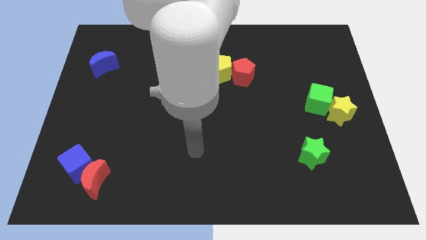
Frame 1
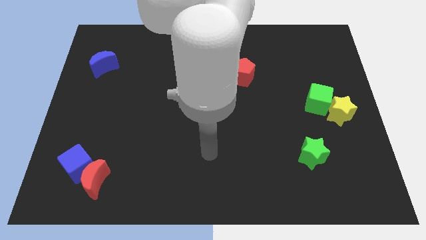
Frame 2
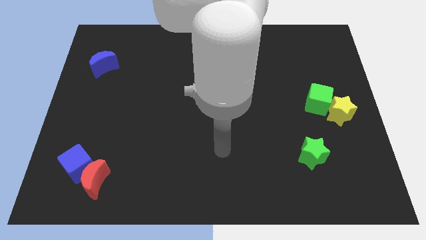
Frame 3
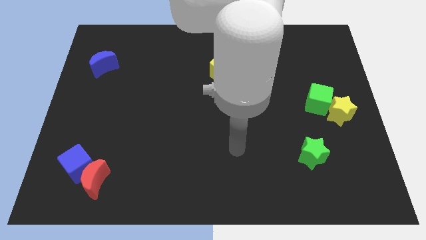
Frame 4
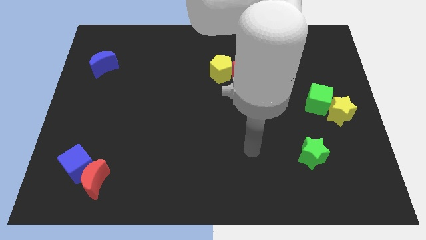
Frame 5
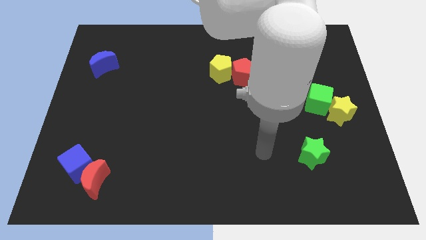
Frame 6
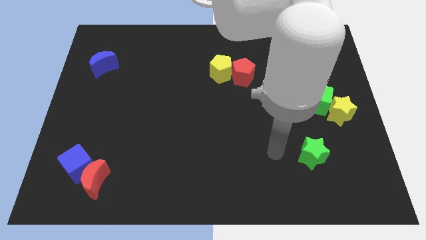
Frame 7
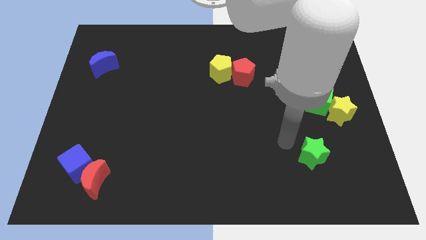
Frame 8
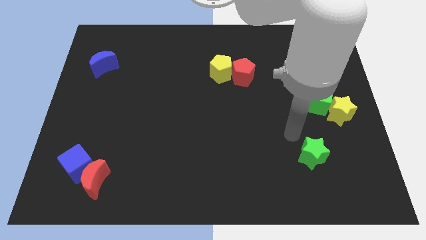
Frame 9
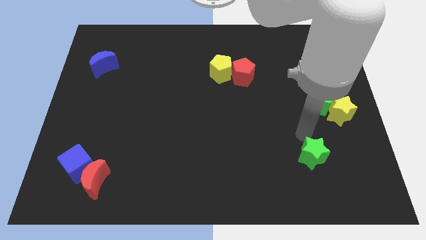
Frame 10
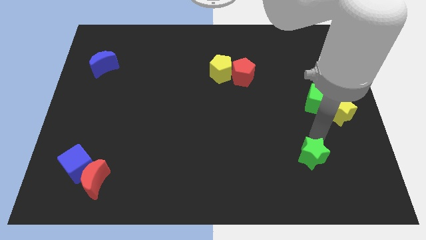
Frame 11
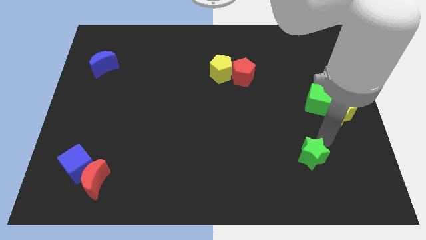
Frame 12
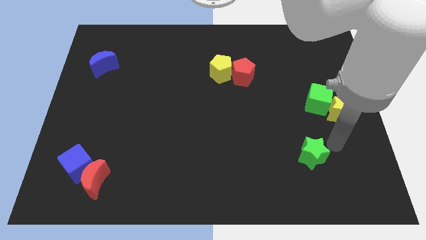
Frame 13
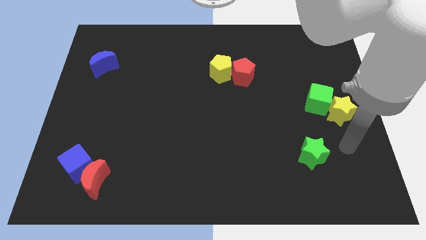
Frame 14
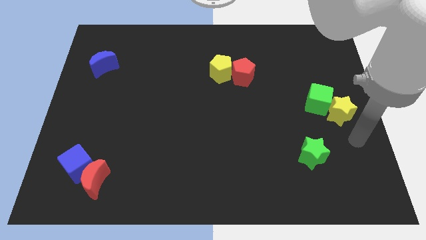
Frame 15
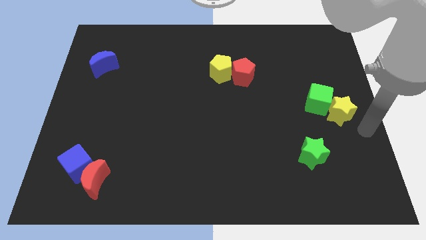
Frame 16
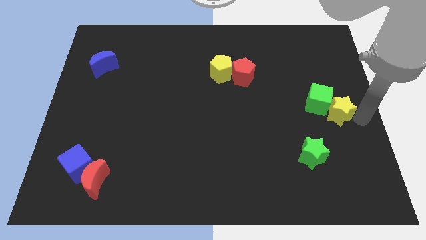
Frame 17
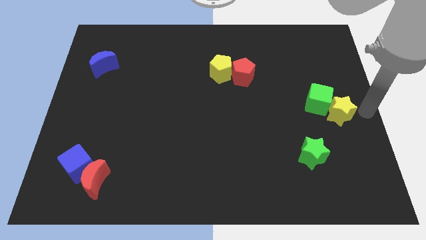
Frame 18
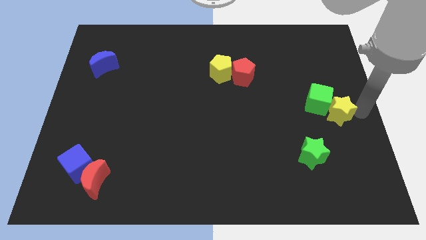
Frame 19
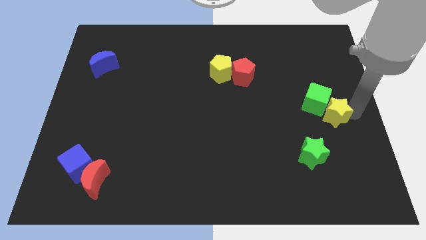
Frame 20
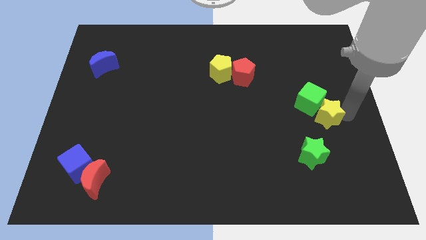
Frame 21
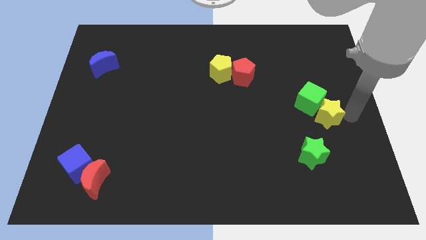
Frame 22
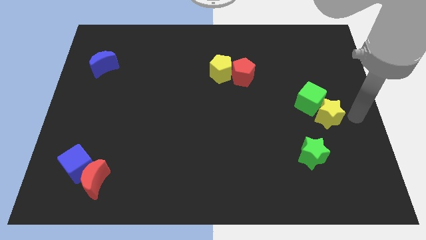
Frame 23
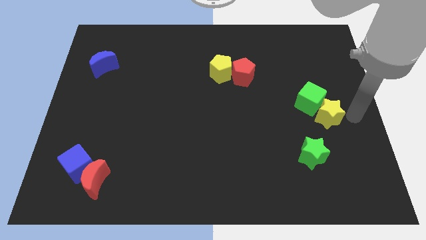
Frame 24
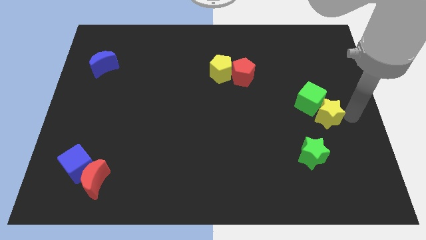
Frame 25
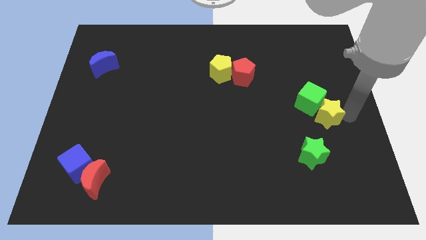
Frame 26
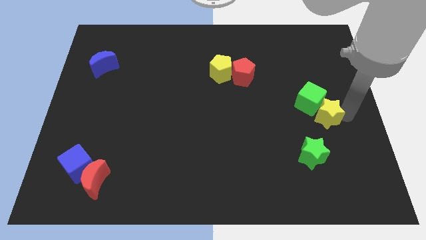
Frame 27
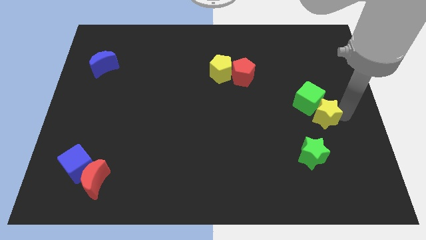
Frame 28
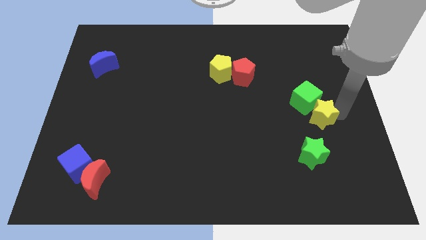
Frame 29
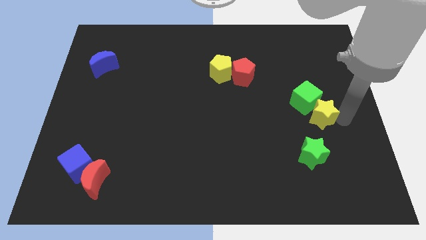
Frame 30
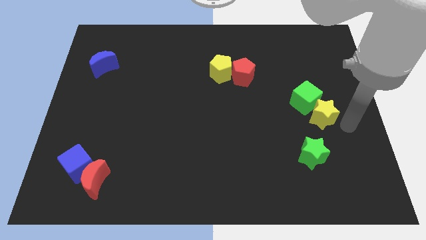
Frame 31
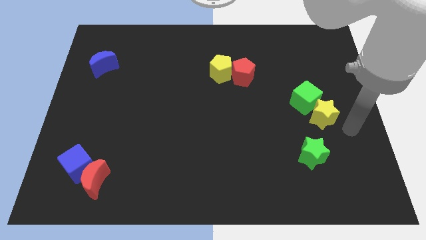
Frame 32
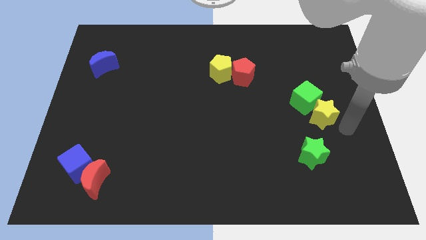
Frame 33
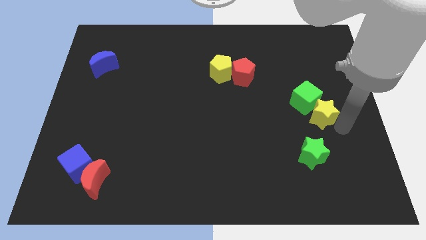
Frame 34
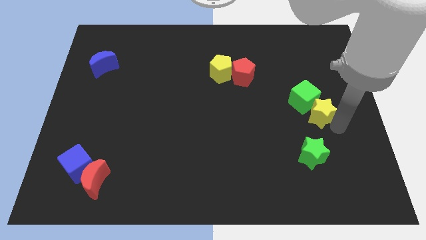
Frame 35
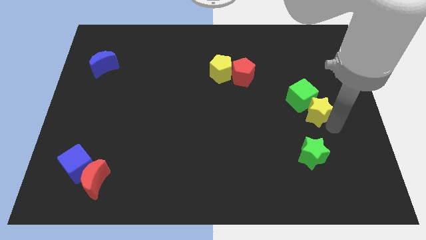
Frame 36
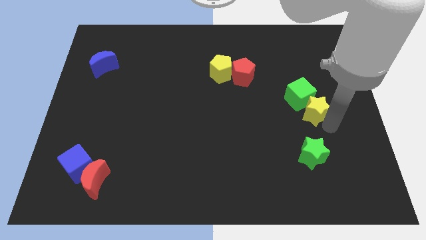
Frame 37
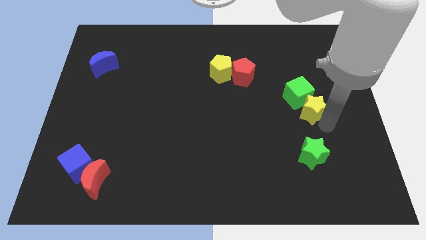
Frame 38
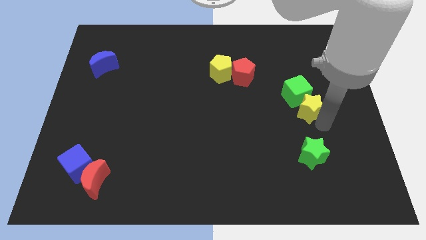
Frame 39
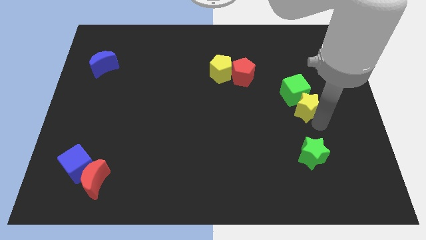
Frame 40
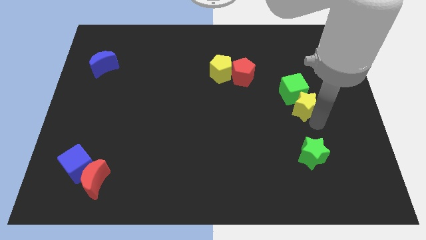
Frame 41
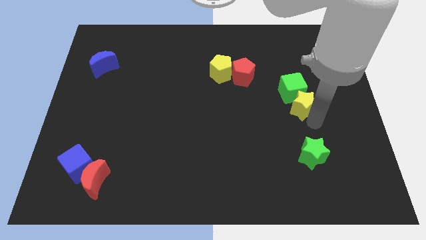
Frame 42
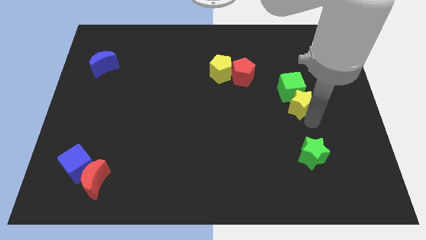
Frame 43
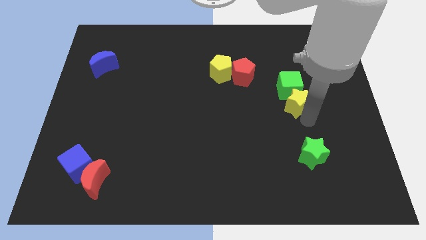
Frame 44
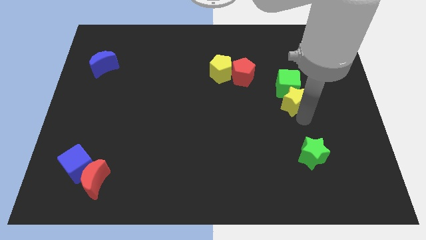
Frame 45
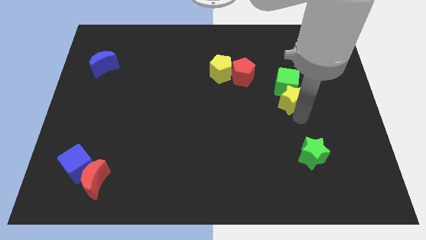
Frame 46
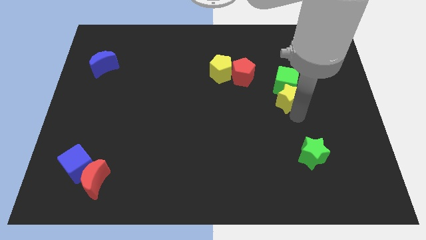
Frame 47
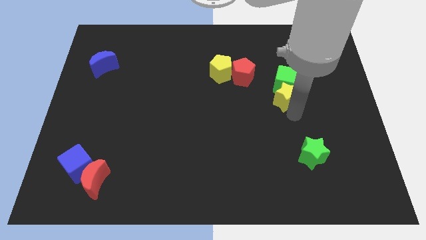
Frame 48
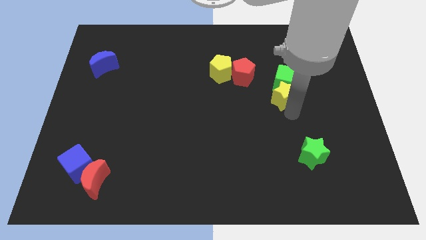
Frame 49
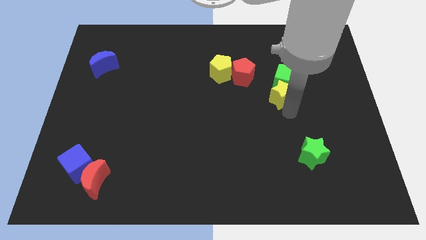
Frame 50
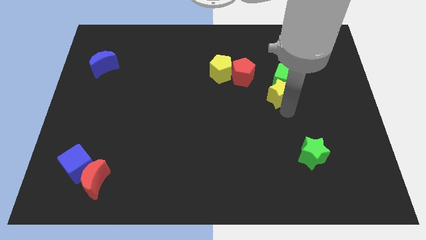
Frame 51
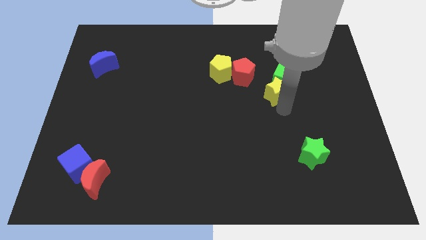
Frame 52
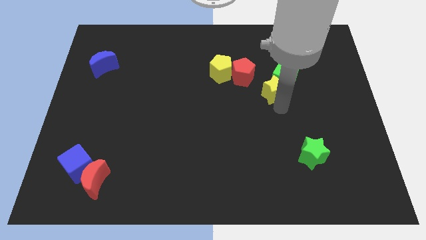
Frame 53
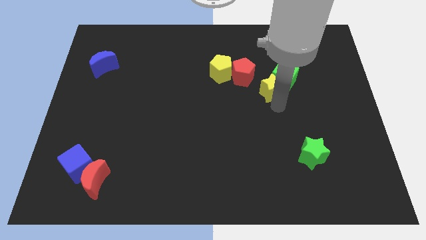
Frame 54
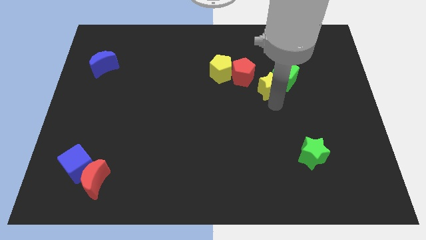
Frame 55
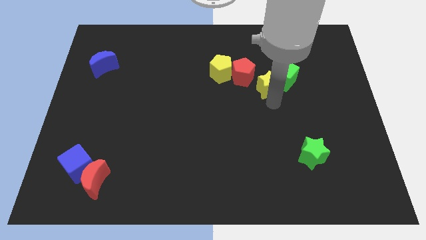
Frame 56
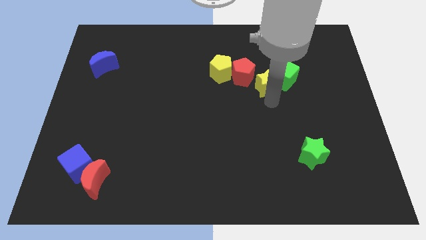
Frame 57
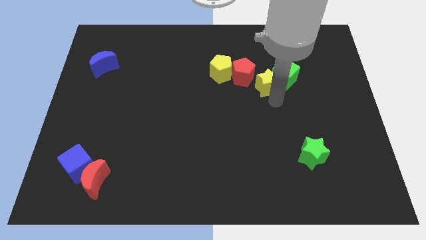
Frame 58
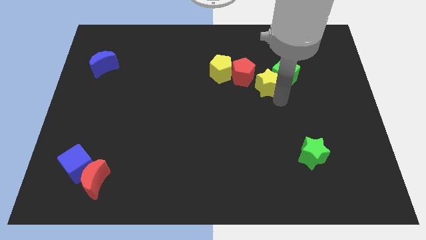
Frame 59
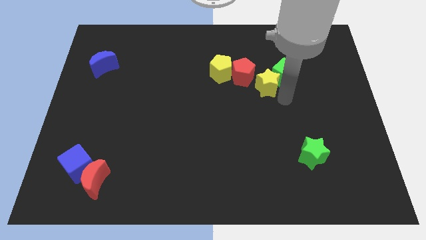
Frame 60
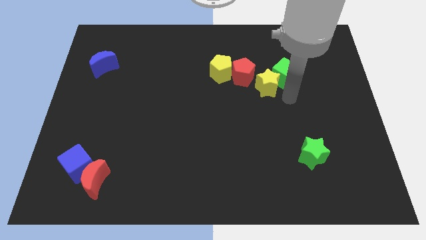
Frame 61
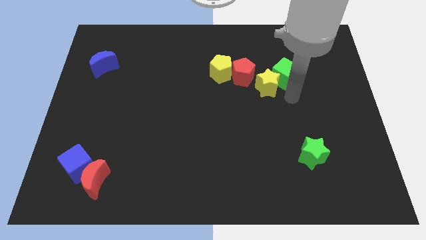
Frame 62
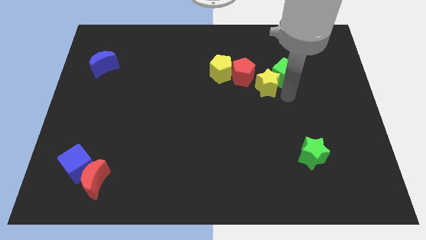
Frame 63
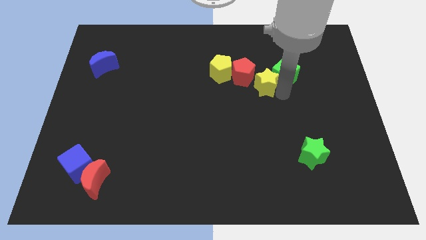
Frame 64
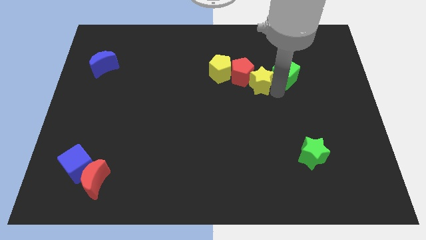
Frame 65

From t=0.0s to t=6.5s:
move the yellow star towards the red pentagon

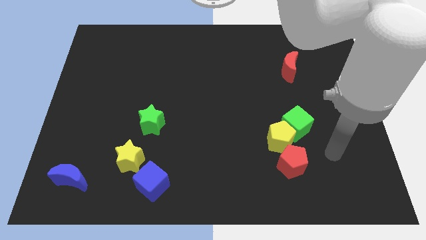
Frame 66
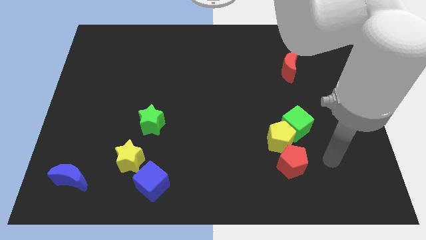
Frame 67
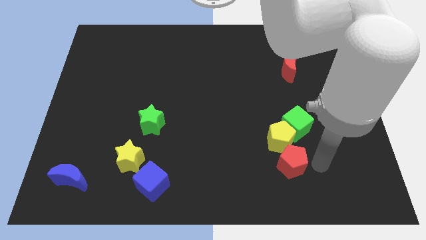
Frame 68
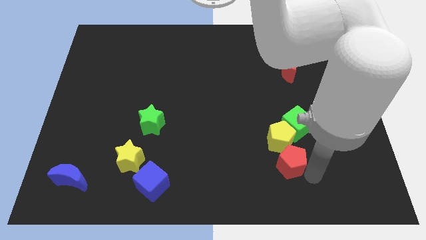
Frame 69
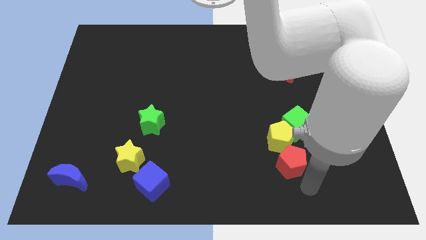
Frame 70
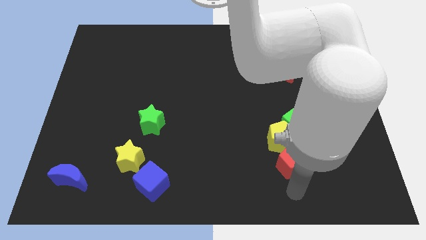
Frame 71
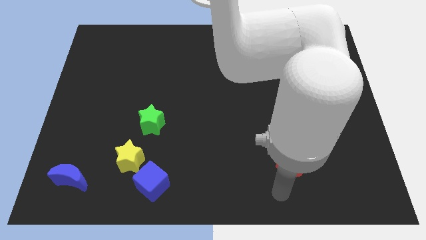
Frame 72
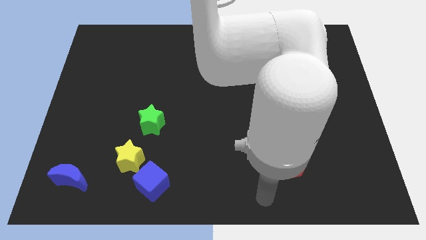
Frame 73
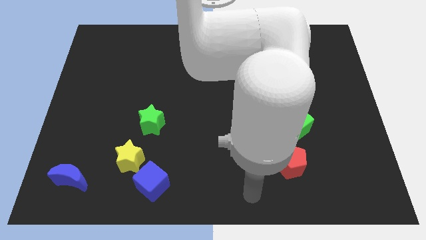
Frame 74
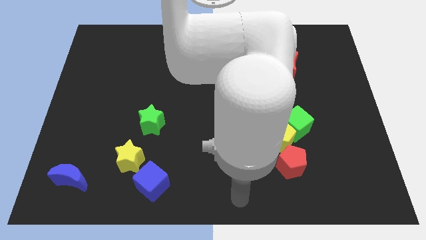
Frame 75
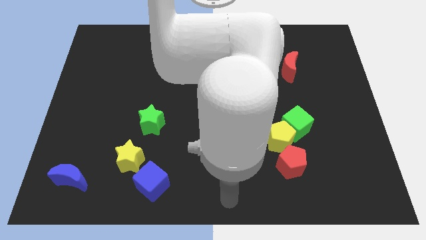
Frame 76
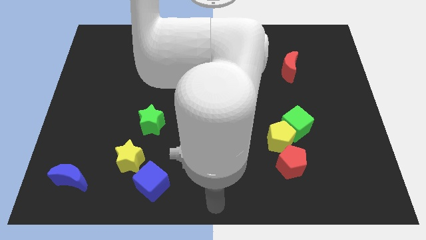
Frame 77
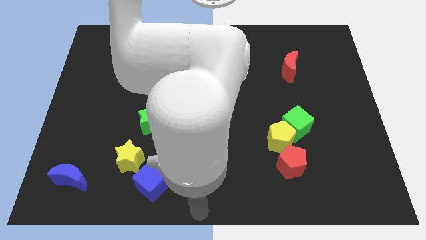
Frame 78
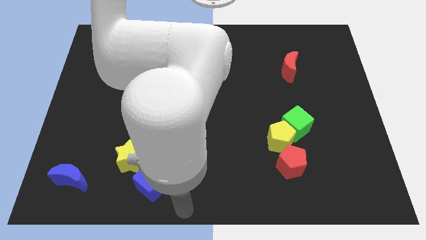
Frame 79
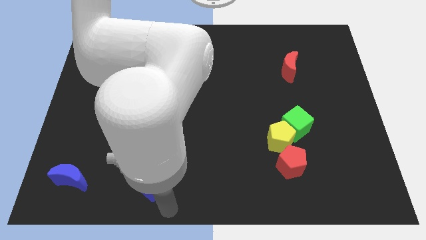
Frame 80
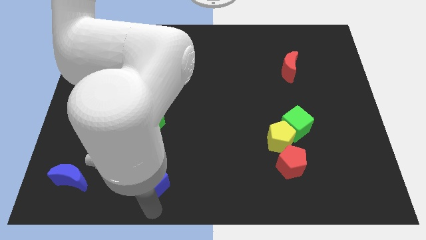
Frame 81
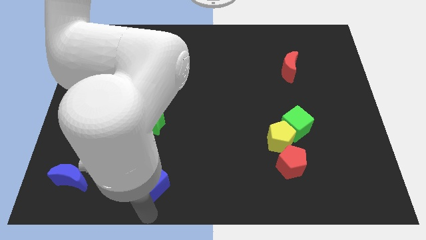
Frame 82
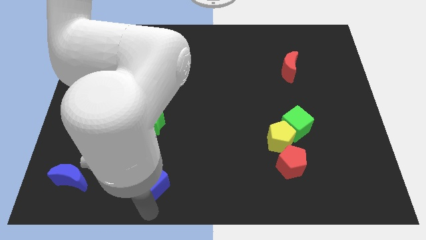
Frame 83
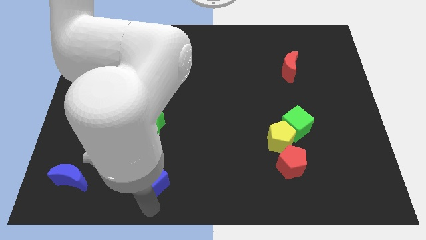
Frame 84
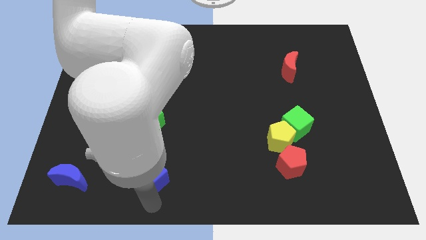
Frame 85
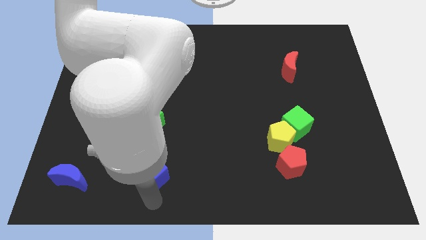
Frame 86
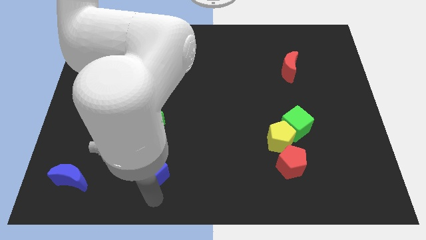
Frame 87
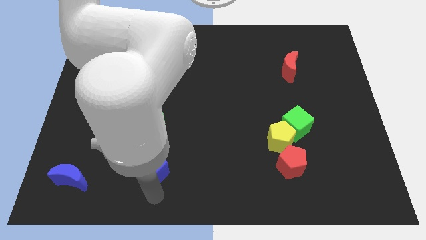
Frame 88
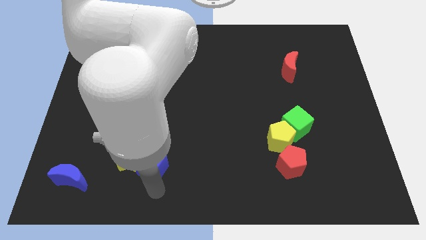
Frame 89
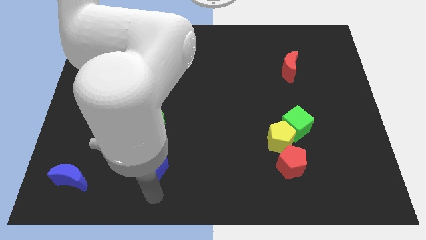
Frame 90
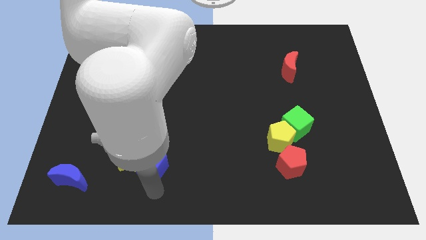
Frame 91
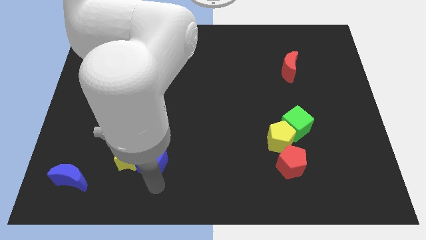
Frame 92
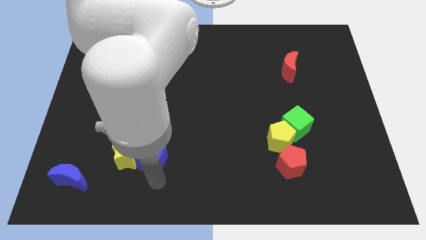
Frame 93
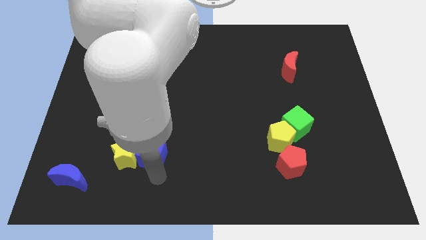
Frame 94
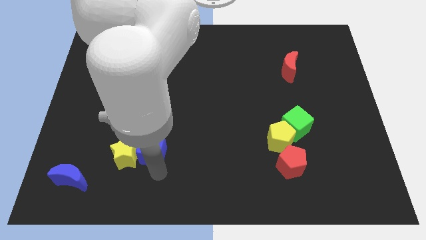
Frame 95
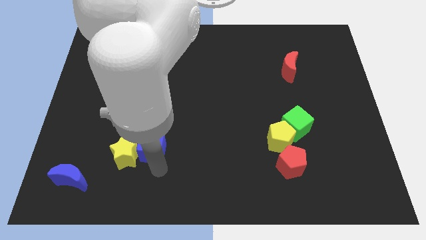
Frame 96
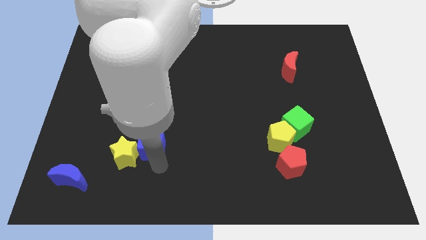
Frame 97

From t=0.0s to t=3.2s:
push the blue cube close to the green star
